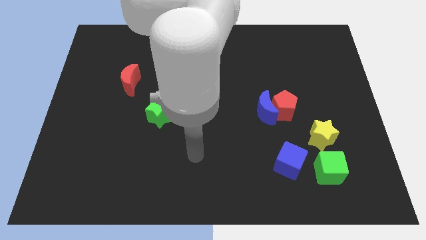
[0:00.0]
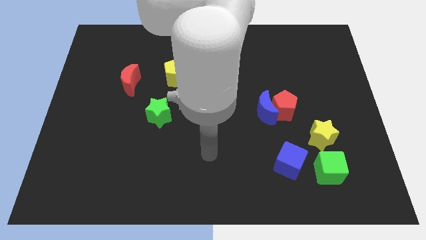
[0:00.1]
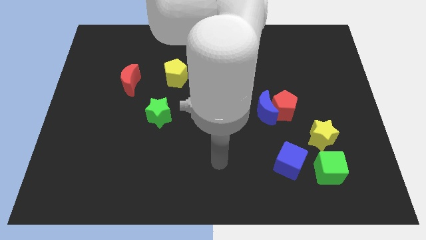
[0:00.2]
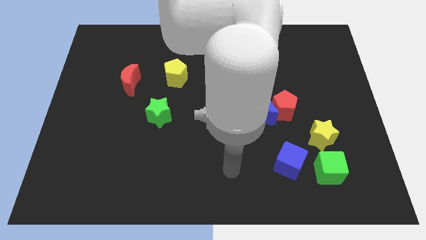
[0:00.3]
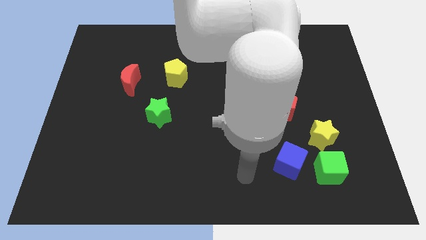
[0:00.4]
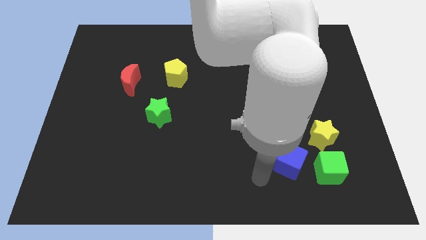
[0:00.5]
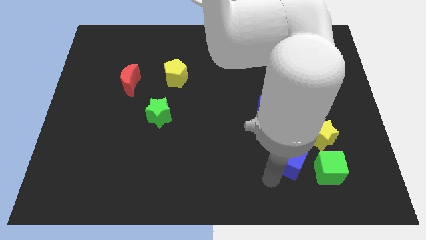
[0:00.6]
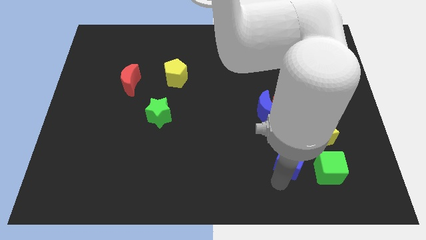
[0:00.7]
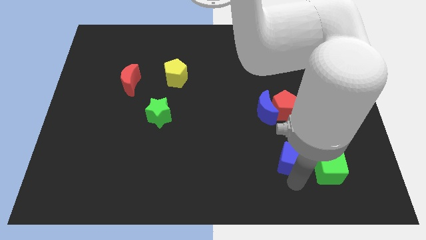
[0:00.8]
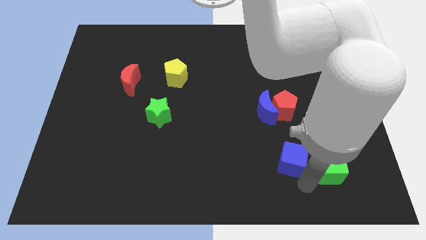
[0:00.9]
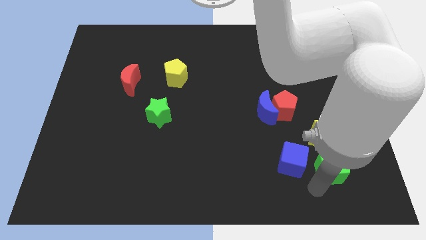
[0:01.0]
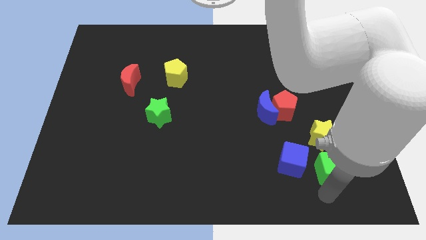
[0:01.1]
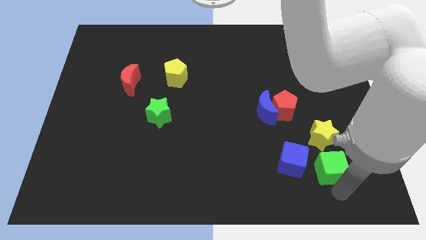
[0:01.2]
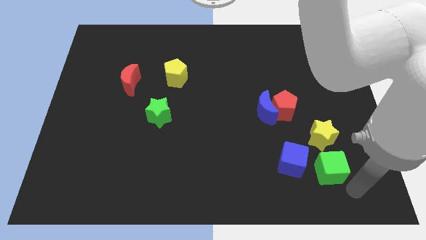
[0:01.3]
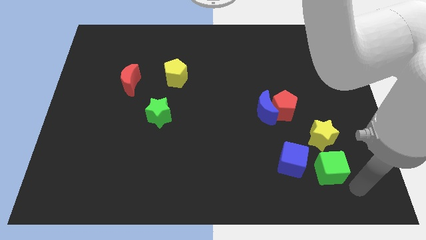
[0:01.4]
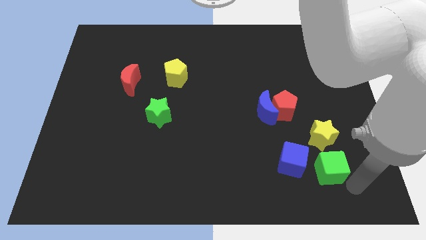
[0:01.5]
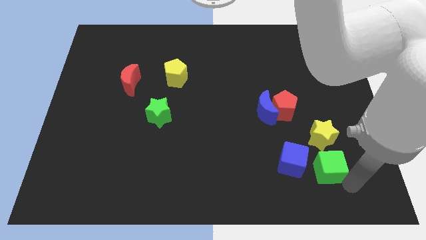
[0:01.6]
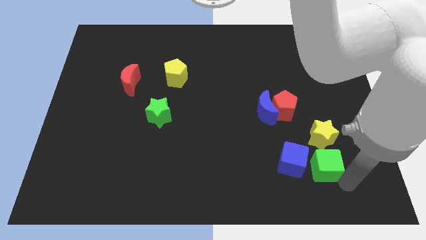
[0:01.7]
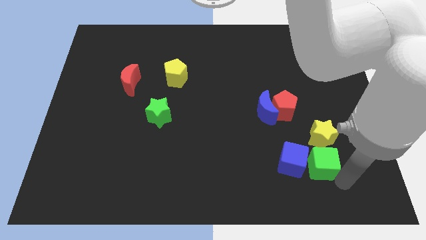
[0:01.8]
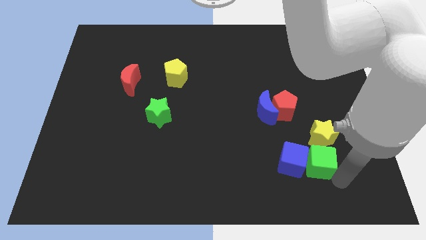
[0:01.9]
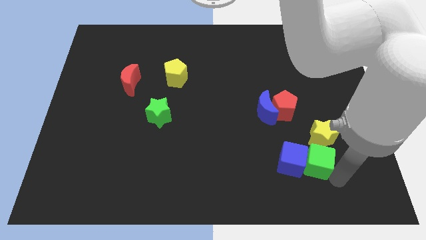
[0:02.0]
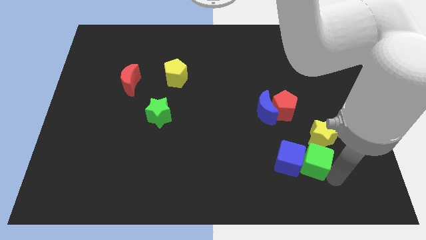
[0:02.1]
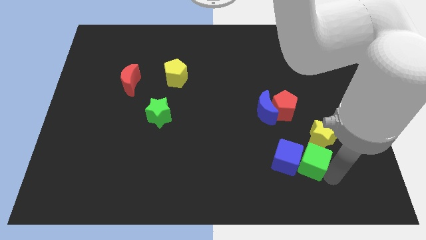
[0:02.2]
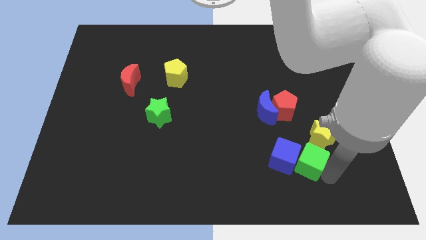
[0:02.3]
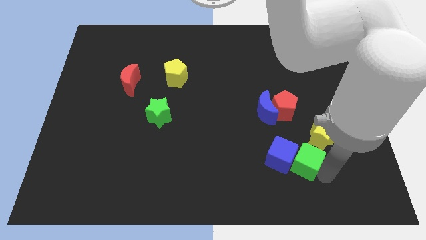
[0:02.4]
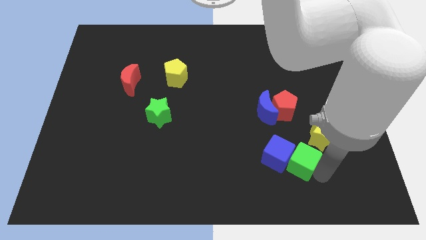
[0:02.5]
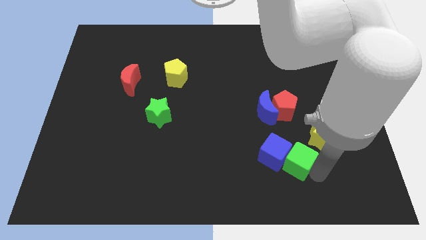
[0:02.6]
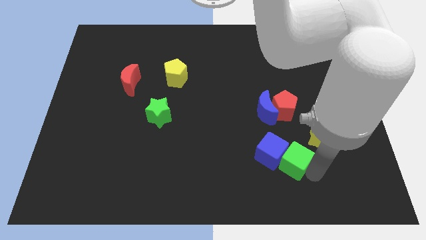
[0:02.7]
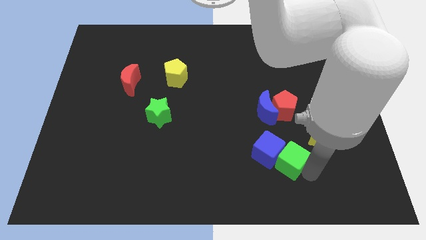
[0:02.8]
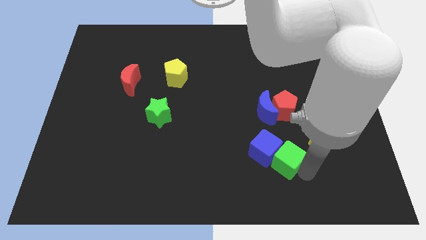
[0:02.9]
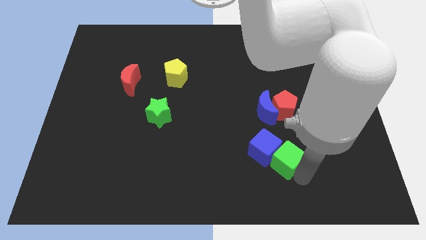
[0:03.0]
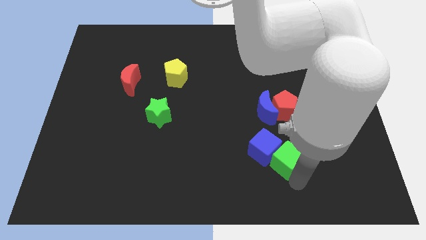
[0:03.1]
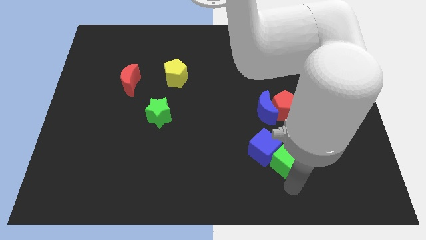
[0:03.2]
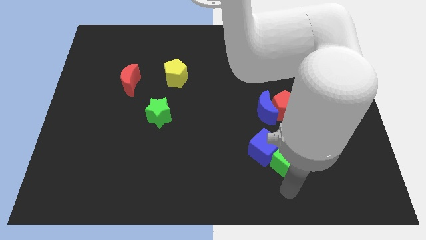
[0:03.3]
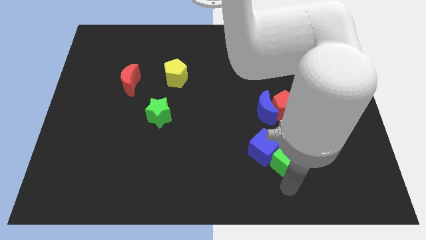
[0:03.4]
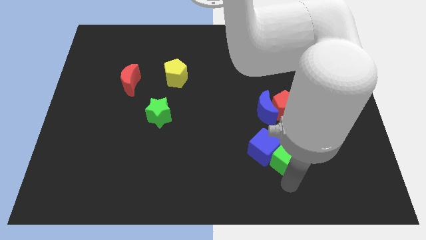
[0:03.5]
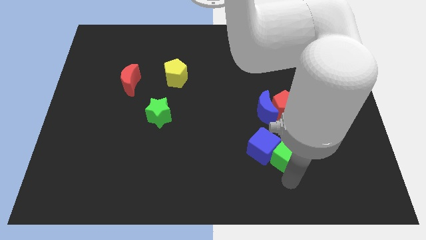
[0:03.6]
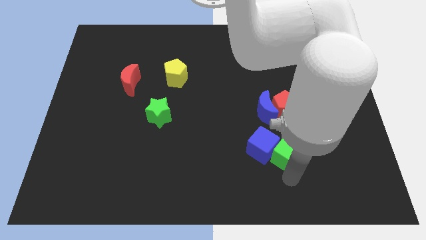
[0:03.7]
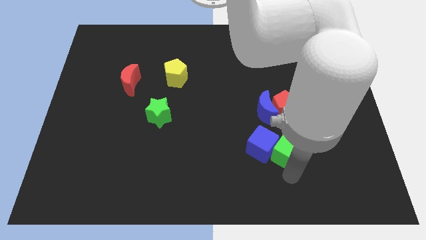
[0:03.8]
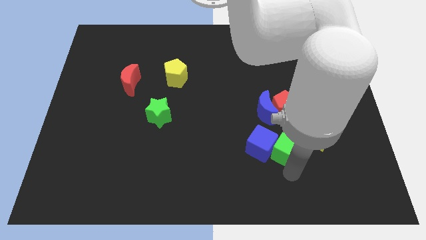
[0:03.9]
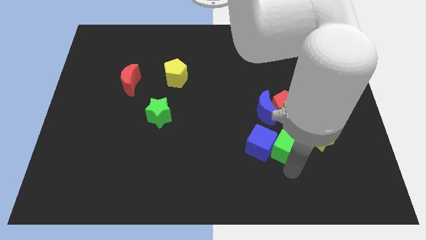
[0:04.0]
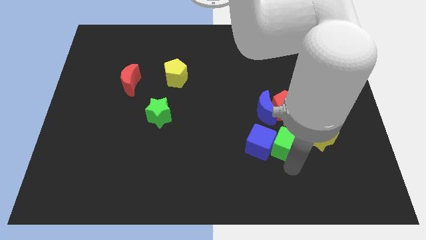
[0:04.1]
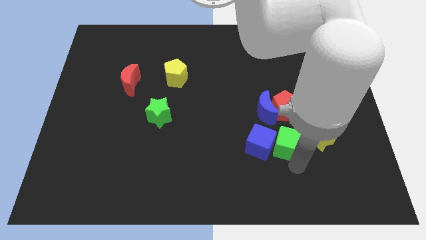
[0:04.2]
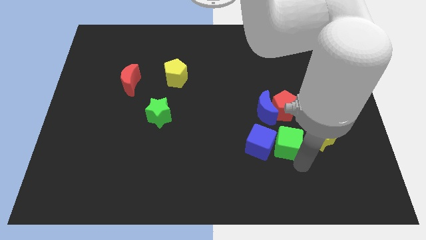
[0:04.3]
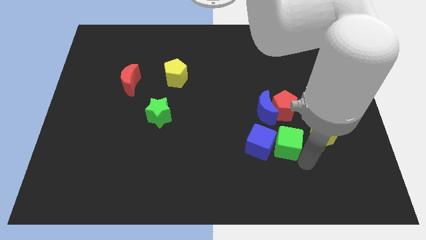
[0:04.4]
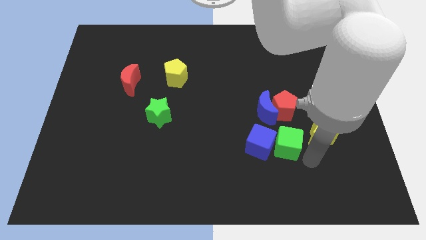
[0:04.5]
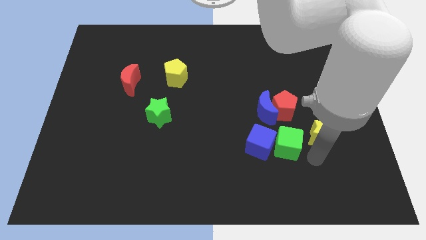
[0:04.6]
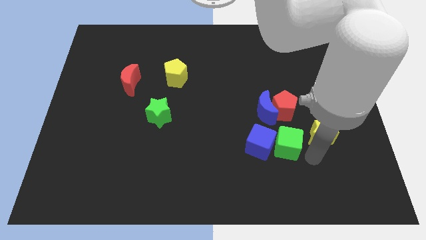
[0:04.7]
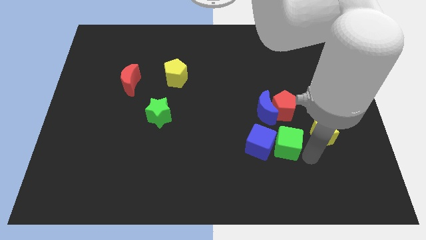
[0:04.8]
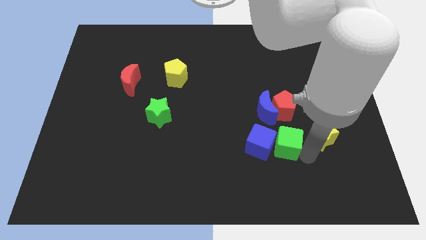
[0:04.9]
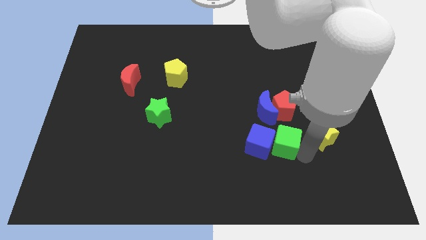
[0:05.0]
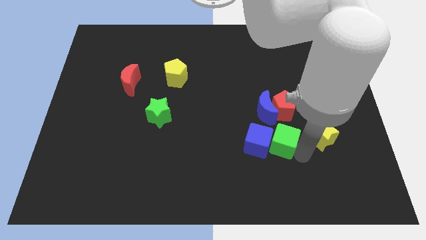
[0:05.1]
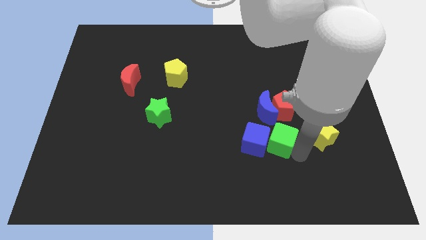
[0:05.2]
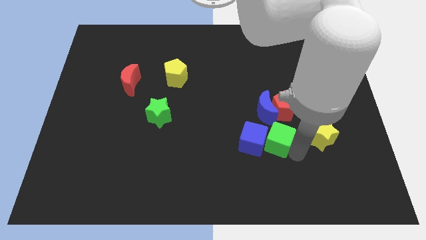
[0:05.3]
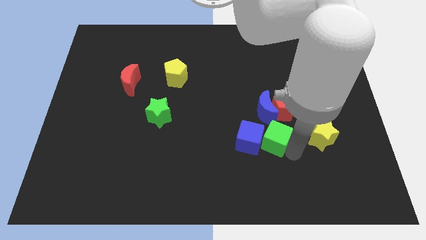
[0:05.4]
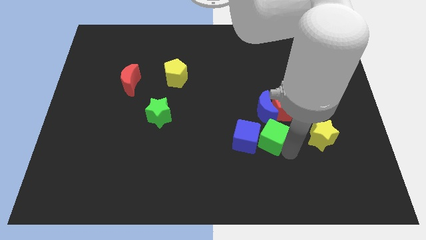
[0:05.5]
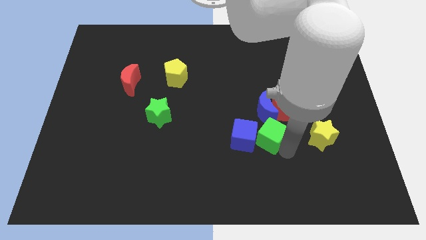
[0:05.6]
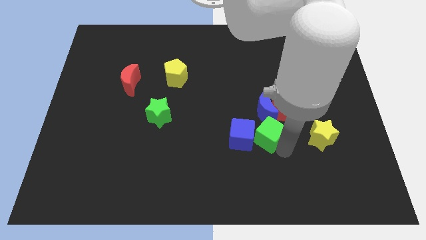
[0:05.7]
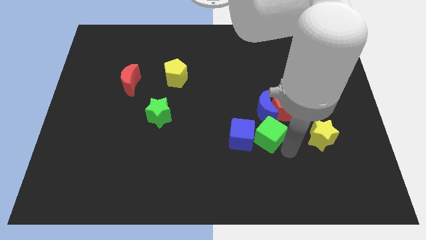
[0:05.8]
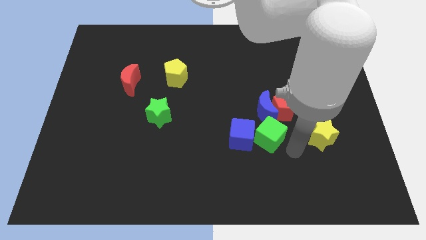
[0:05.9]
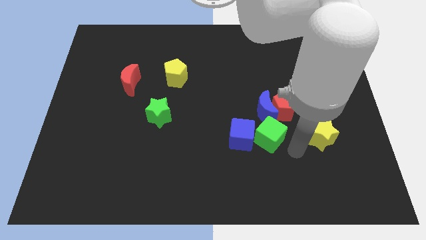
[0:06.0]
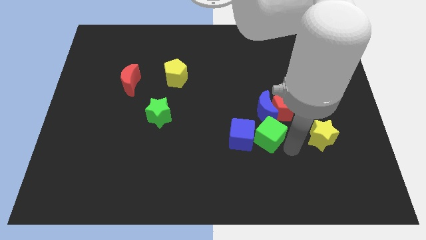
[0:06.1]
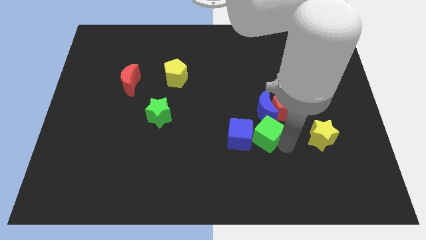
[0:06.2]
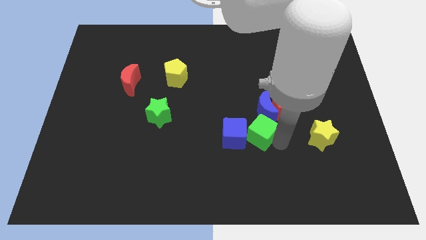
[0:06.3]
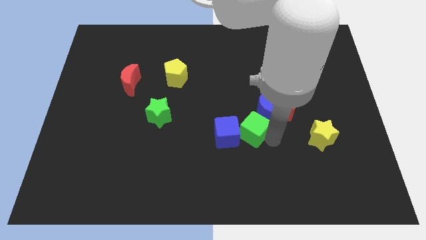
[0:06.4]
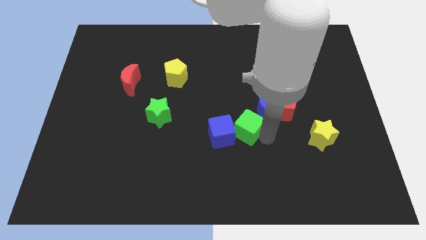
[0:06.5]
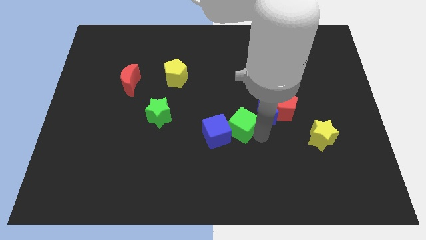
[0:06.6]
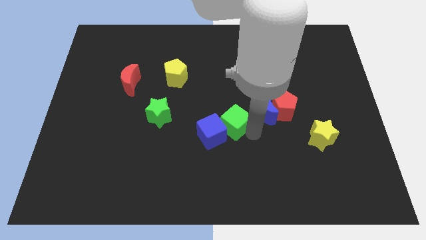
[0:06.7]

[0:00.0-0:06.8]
move the green cube up and left

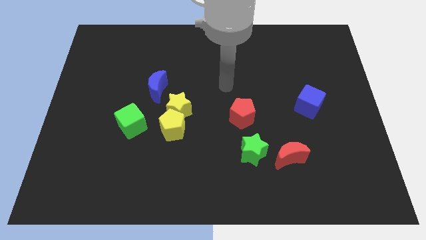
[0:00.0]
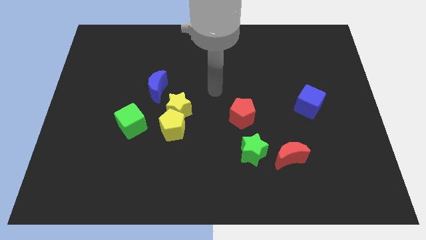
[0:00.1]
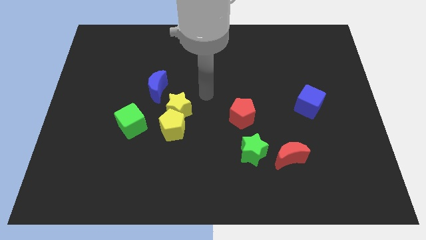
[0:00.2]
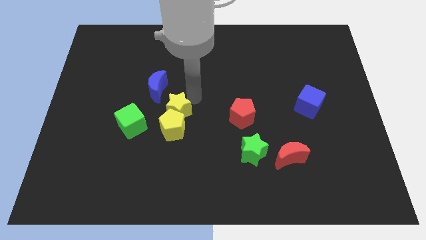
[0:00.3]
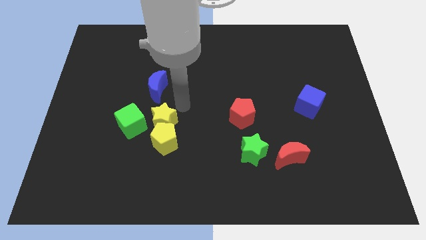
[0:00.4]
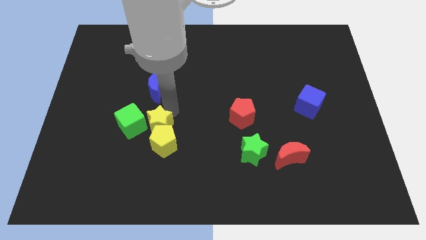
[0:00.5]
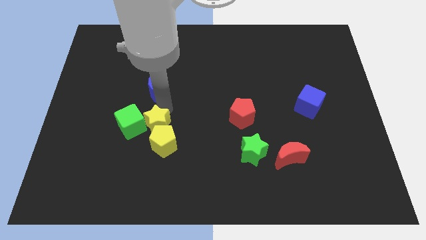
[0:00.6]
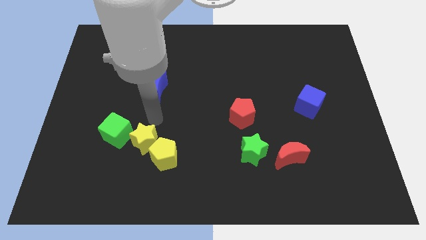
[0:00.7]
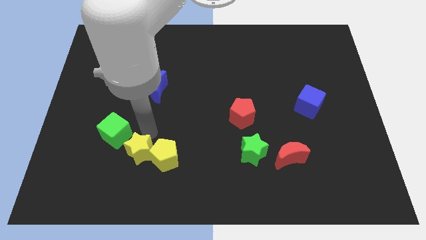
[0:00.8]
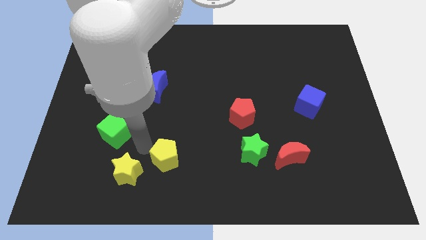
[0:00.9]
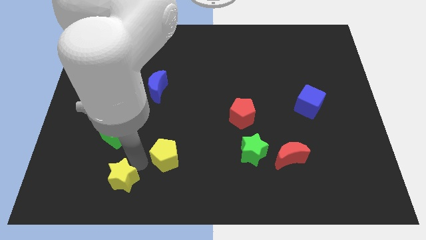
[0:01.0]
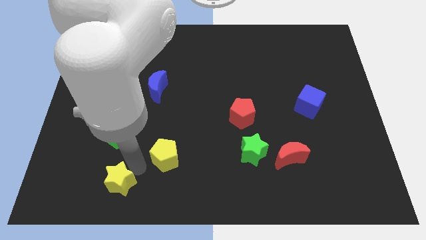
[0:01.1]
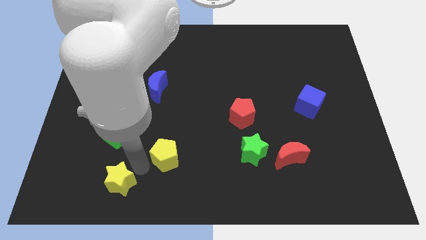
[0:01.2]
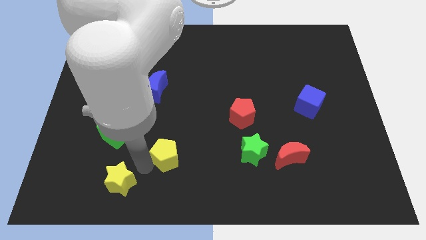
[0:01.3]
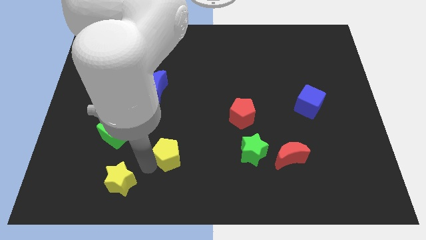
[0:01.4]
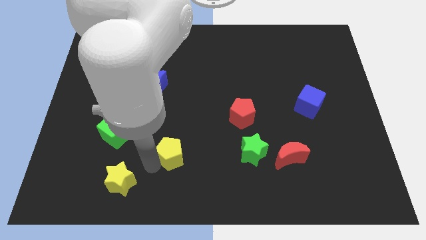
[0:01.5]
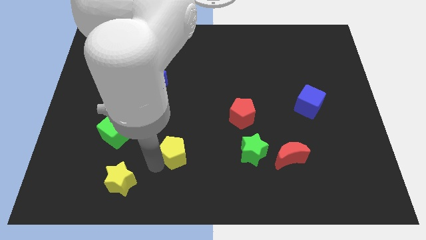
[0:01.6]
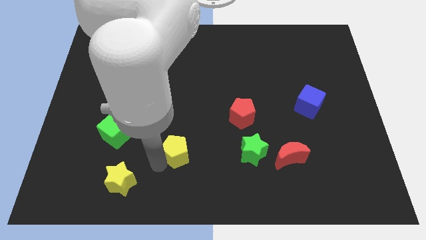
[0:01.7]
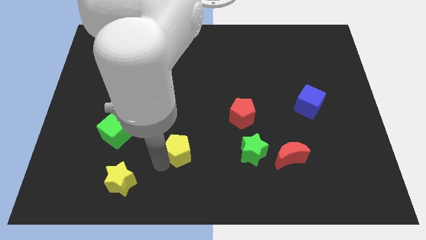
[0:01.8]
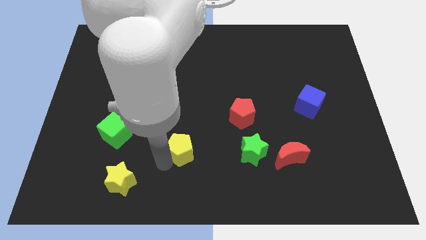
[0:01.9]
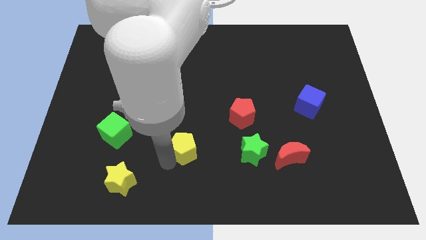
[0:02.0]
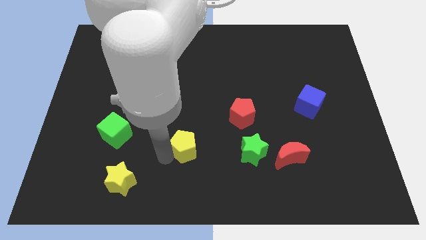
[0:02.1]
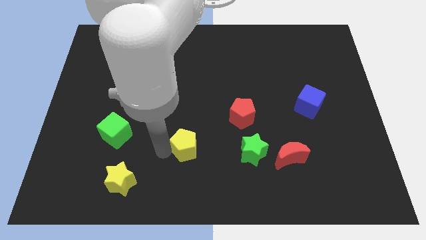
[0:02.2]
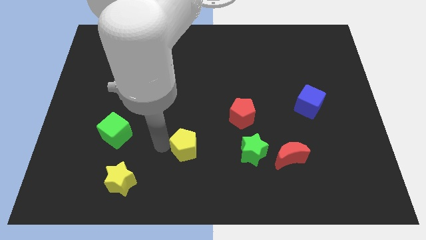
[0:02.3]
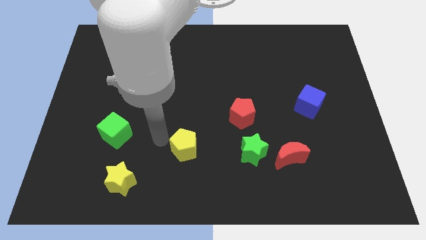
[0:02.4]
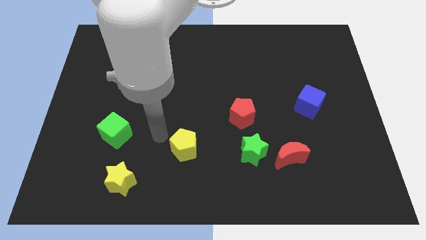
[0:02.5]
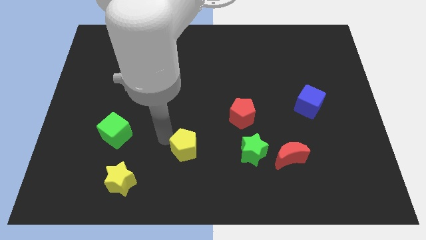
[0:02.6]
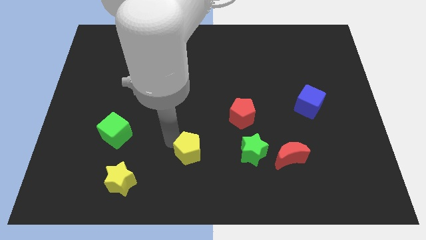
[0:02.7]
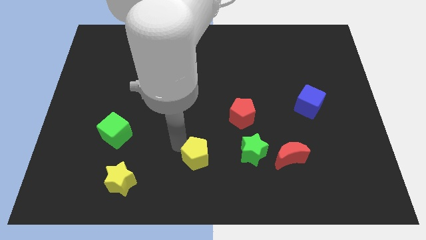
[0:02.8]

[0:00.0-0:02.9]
push the yellow pentagon downwards and to the right a little bit
